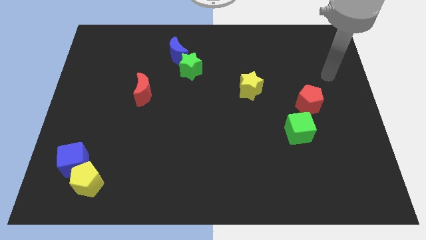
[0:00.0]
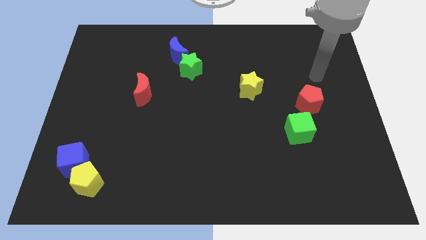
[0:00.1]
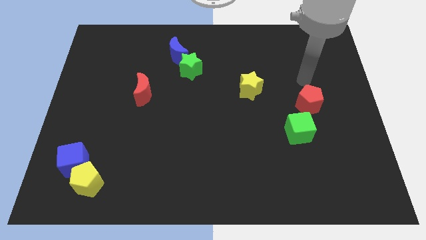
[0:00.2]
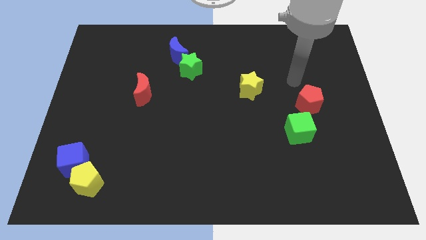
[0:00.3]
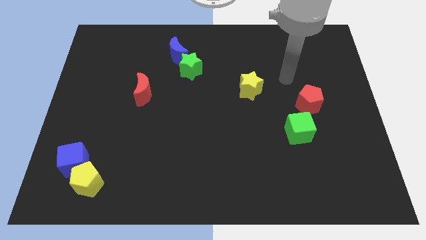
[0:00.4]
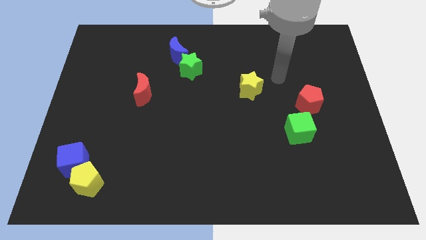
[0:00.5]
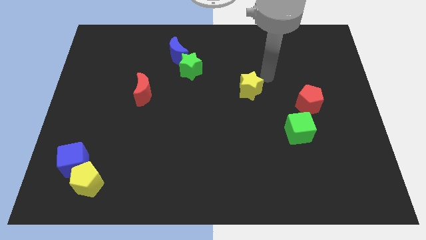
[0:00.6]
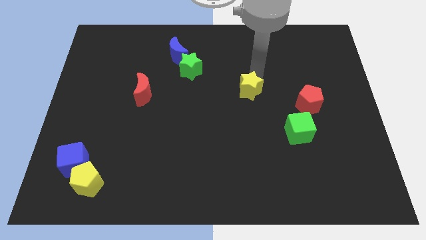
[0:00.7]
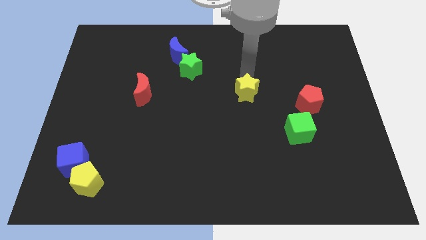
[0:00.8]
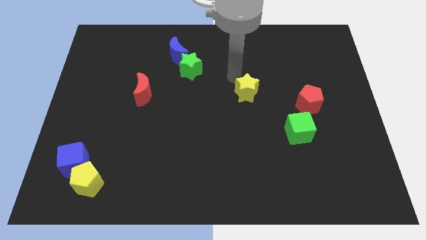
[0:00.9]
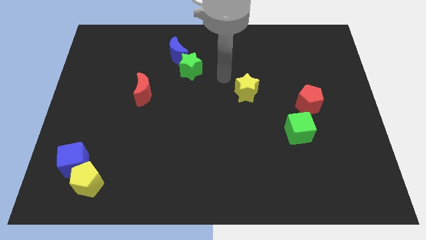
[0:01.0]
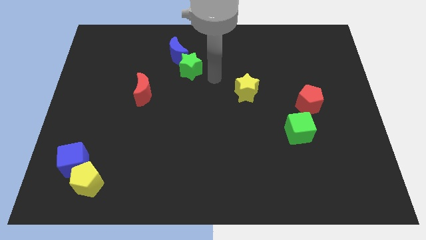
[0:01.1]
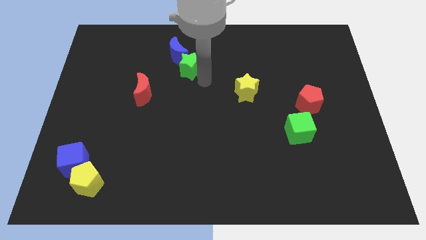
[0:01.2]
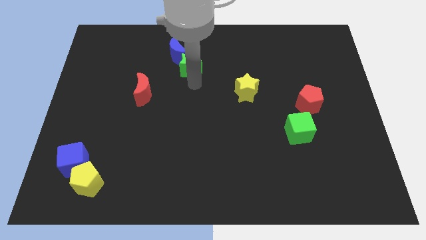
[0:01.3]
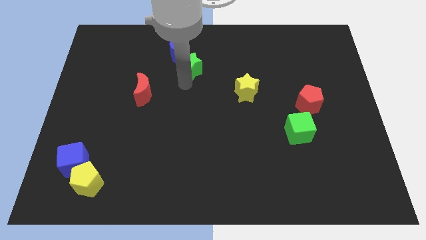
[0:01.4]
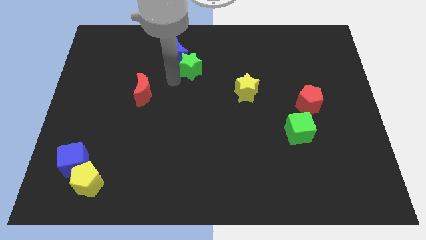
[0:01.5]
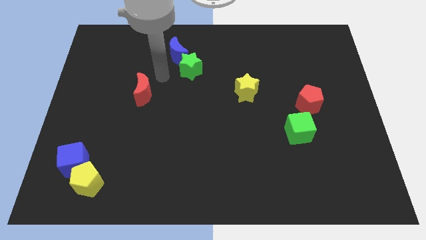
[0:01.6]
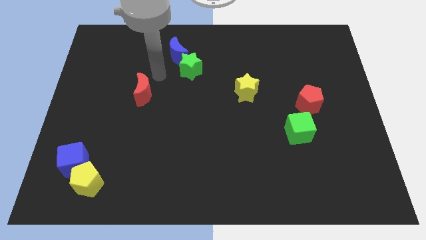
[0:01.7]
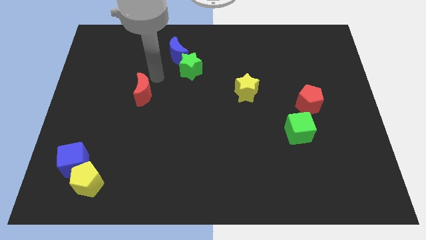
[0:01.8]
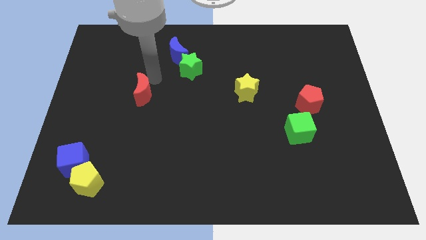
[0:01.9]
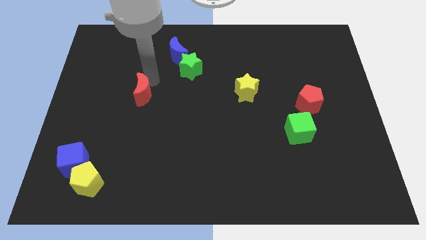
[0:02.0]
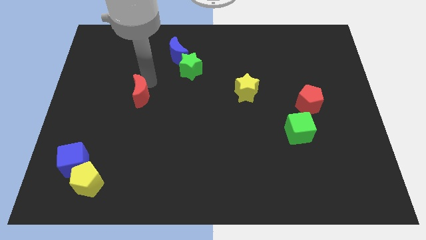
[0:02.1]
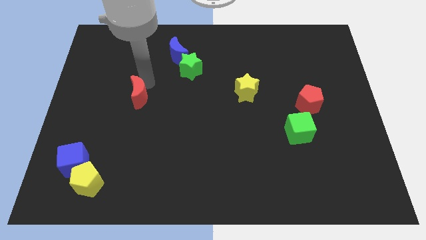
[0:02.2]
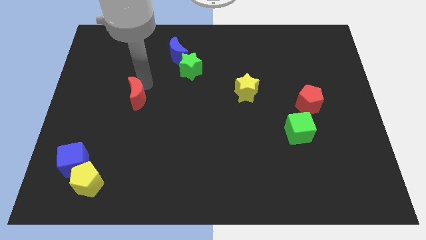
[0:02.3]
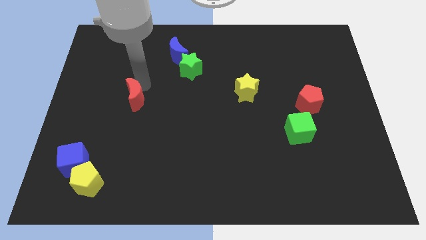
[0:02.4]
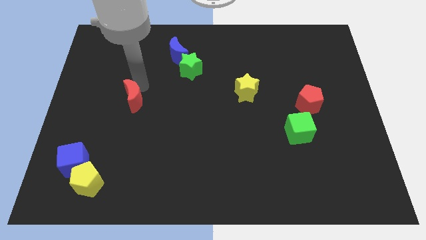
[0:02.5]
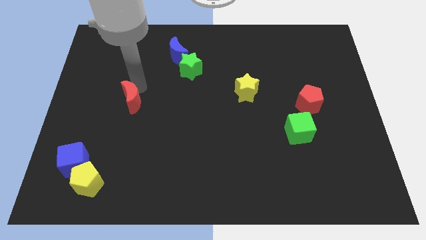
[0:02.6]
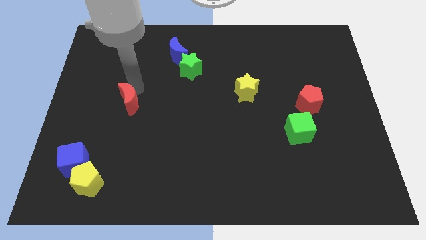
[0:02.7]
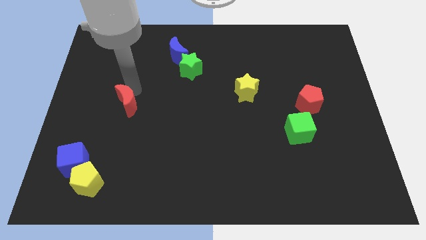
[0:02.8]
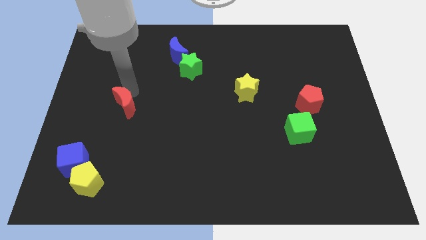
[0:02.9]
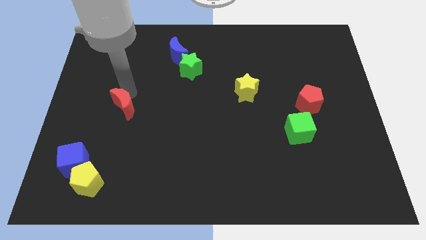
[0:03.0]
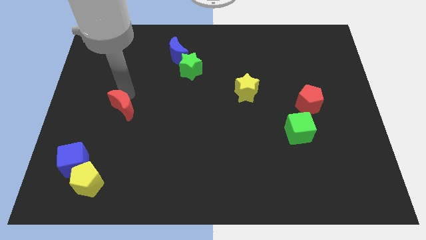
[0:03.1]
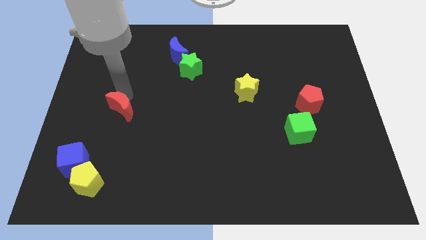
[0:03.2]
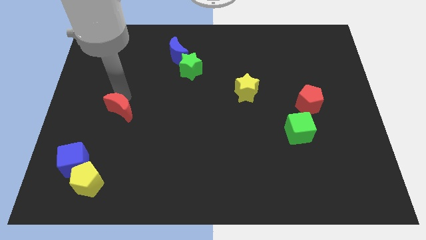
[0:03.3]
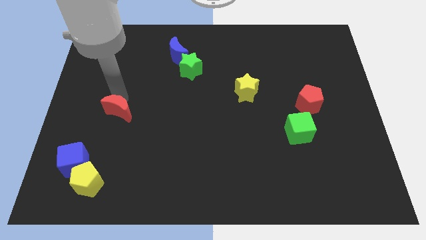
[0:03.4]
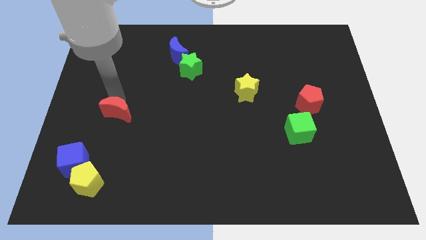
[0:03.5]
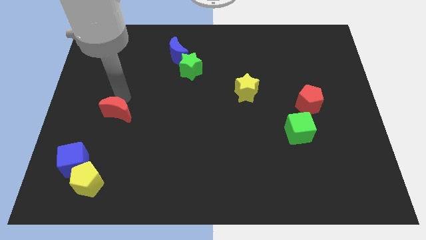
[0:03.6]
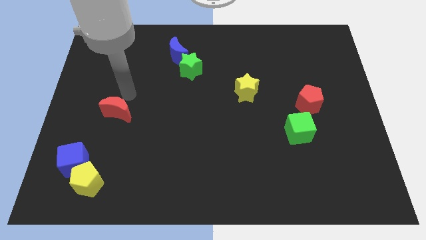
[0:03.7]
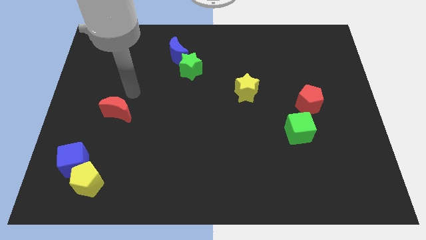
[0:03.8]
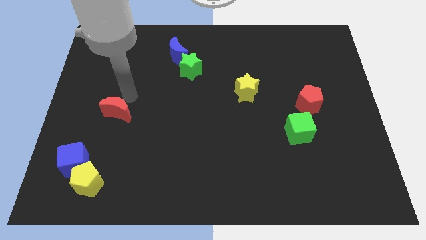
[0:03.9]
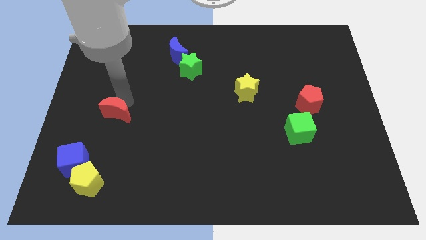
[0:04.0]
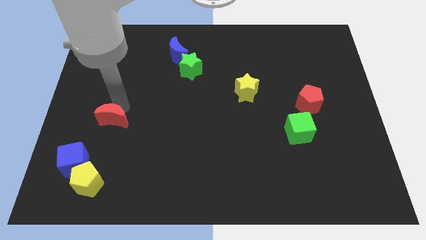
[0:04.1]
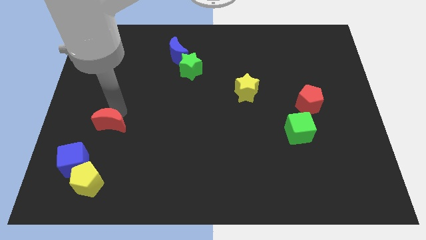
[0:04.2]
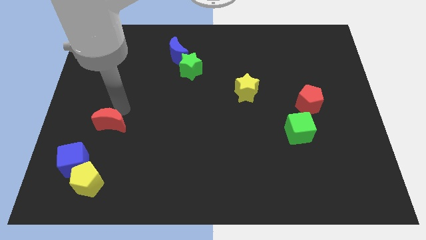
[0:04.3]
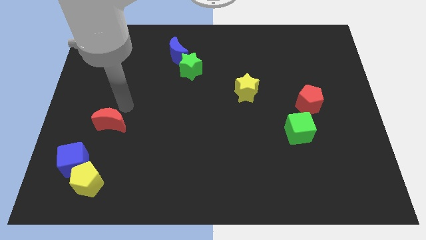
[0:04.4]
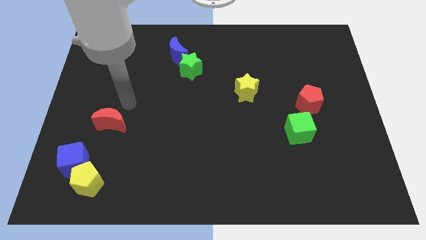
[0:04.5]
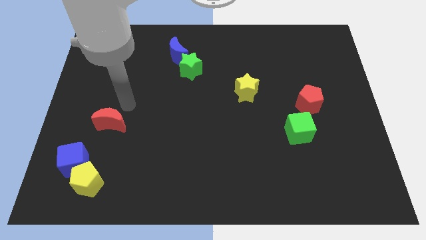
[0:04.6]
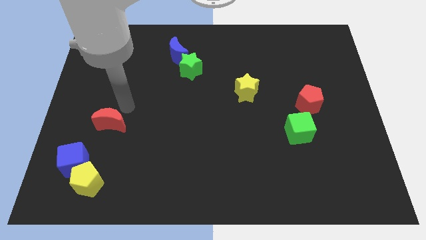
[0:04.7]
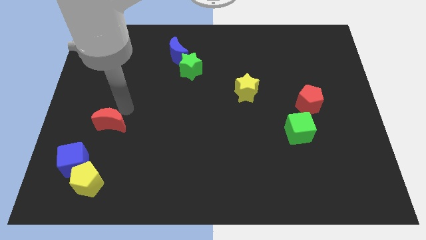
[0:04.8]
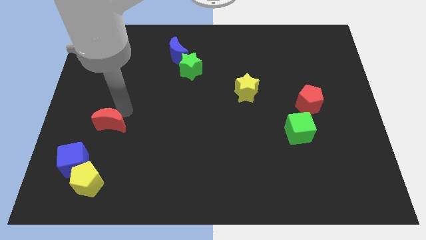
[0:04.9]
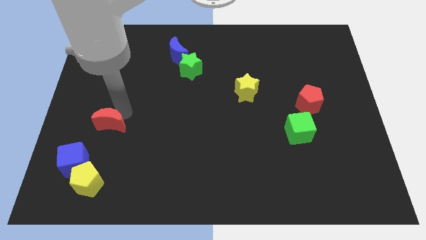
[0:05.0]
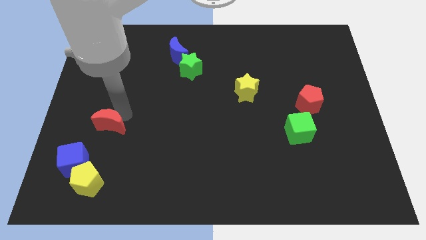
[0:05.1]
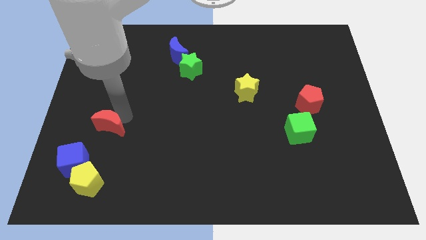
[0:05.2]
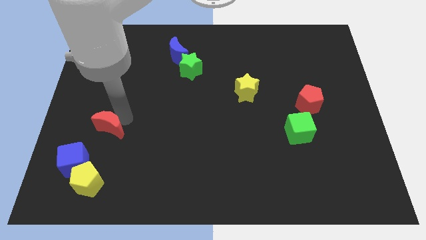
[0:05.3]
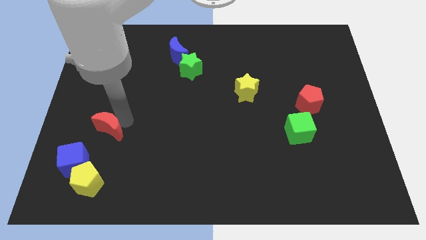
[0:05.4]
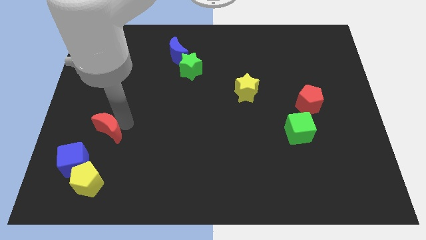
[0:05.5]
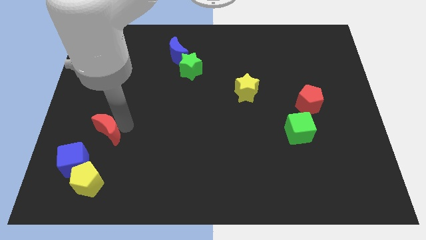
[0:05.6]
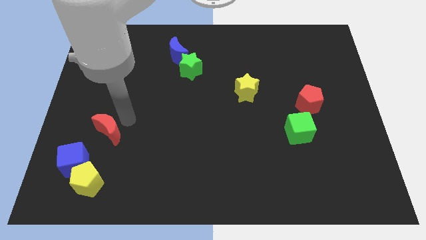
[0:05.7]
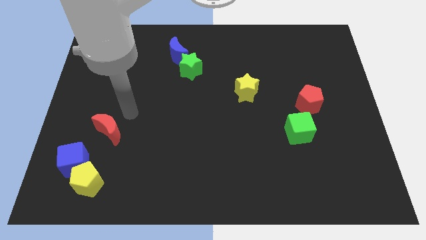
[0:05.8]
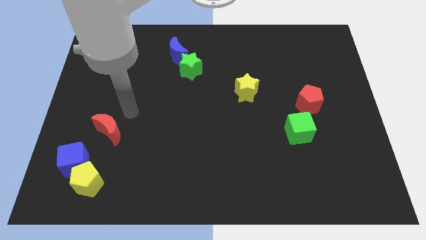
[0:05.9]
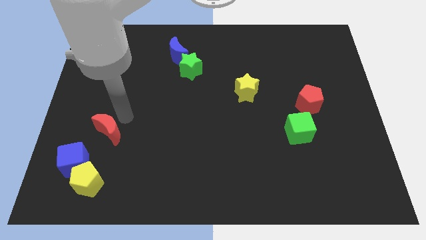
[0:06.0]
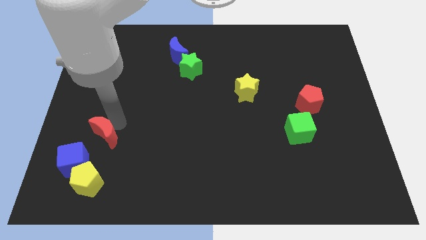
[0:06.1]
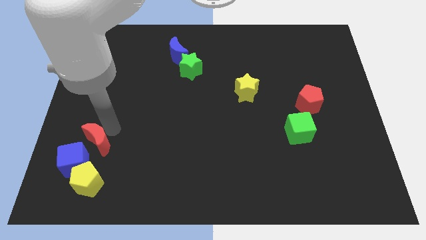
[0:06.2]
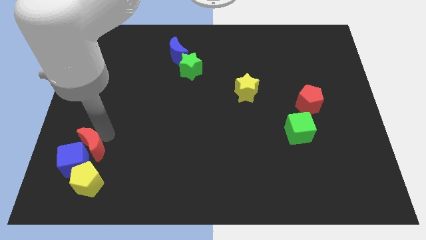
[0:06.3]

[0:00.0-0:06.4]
put the red moon towards the blue cube
